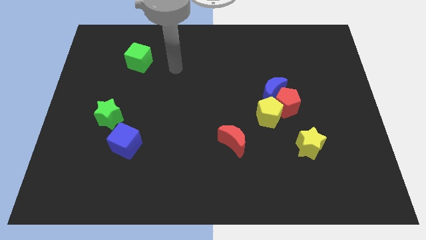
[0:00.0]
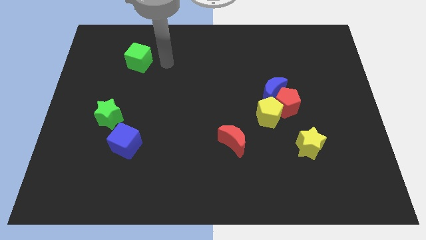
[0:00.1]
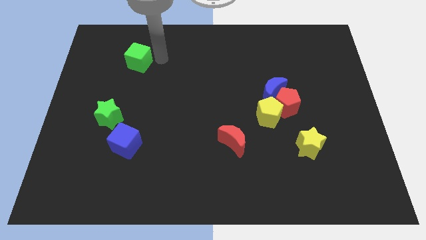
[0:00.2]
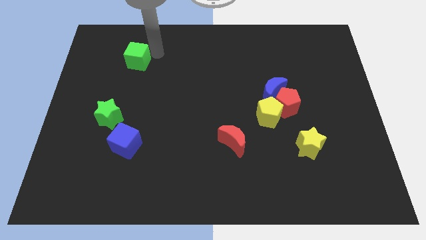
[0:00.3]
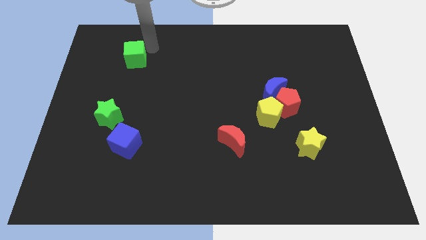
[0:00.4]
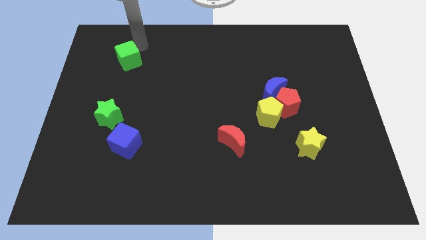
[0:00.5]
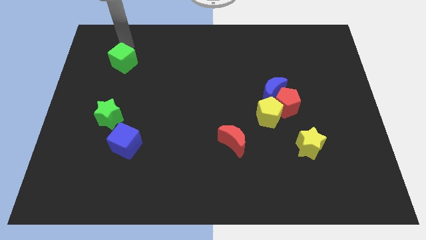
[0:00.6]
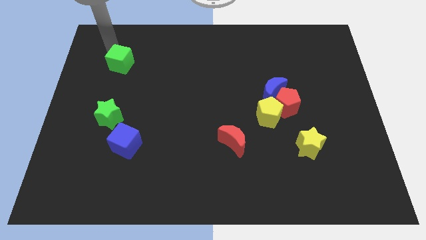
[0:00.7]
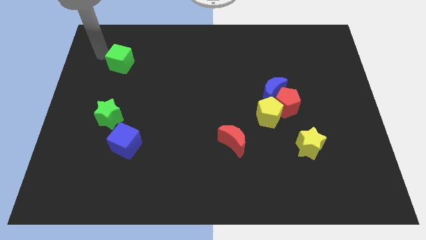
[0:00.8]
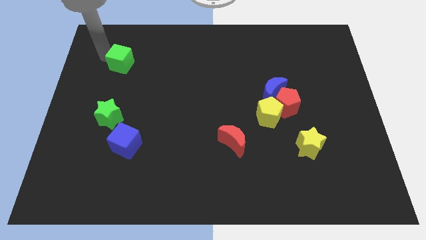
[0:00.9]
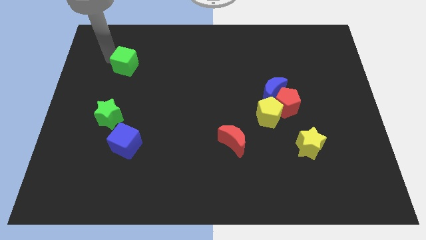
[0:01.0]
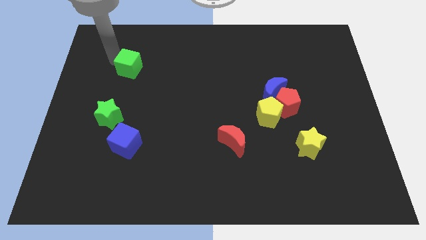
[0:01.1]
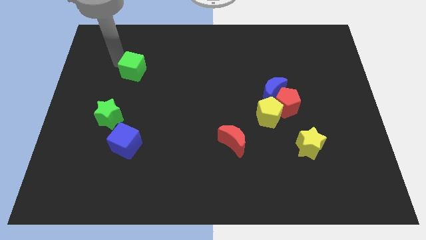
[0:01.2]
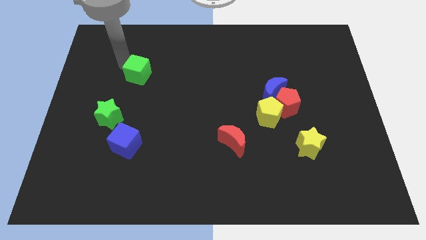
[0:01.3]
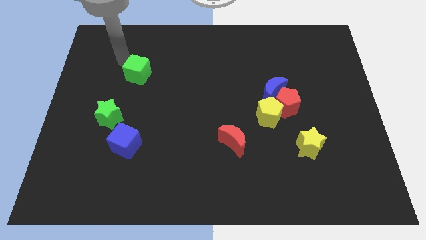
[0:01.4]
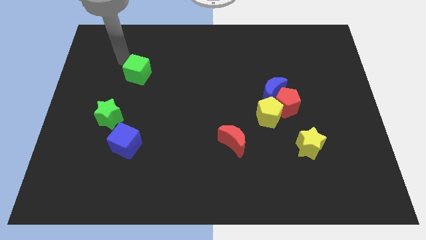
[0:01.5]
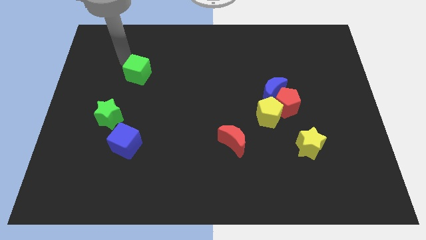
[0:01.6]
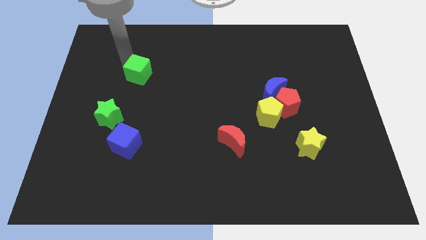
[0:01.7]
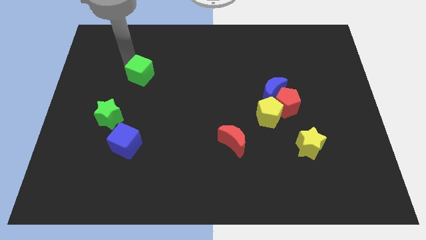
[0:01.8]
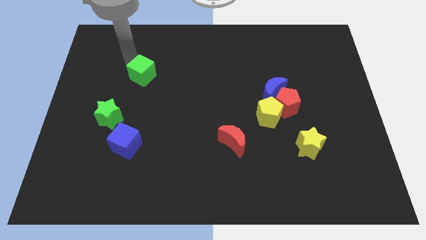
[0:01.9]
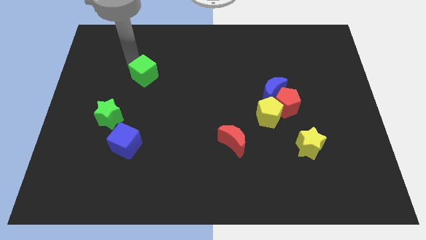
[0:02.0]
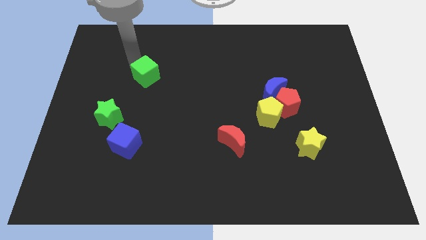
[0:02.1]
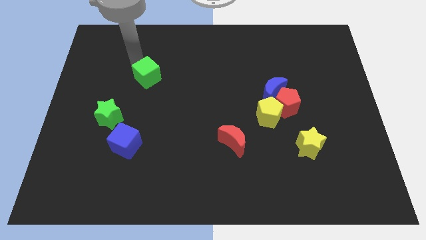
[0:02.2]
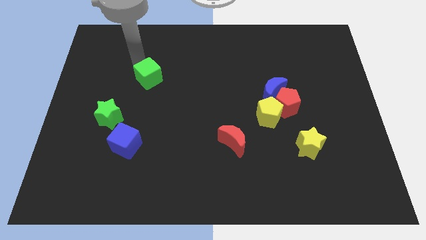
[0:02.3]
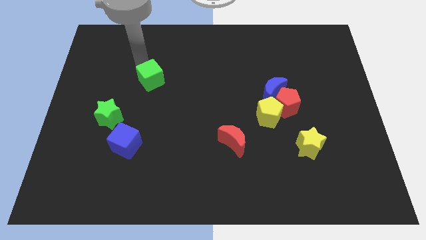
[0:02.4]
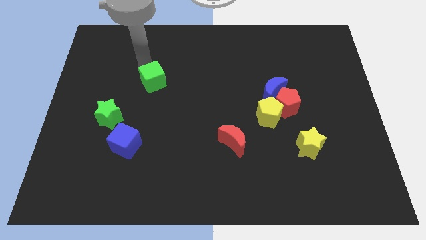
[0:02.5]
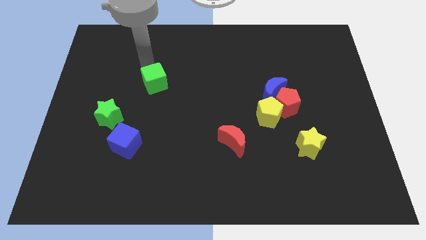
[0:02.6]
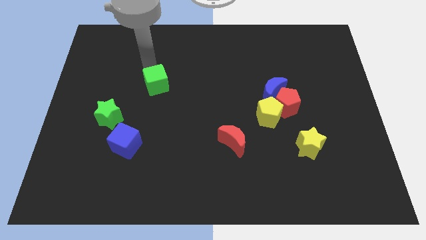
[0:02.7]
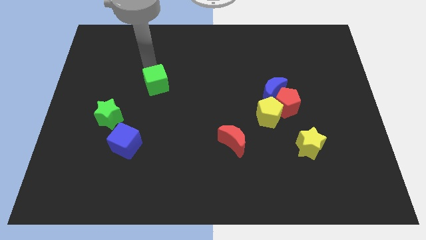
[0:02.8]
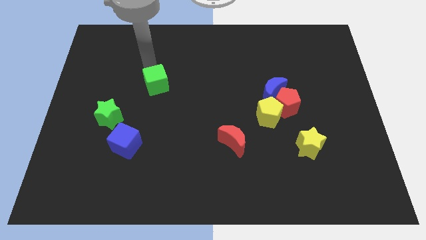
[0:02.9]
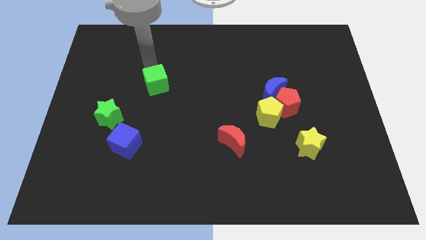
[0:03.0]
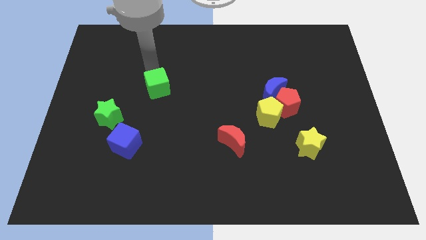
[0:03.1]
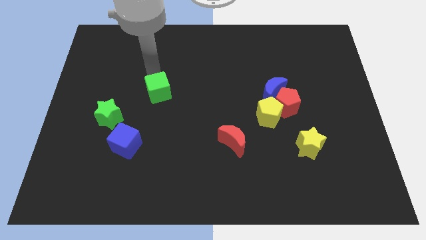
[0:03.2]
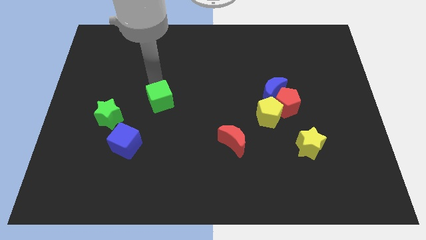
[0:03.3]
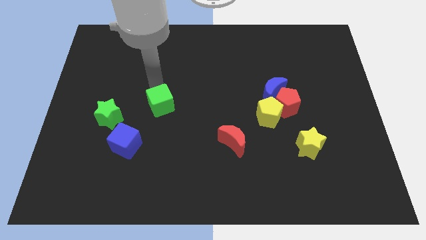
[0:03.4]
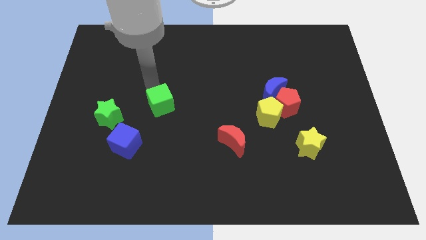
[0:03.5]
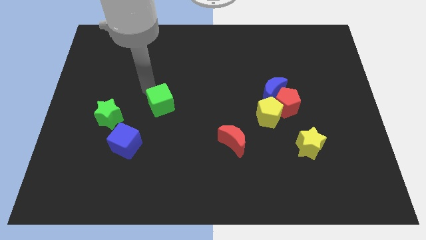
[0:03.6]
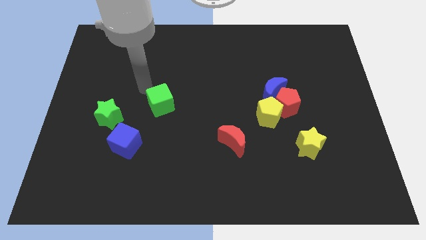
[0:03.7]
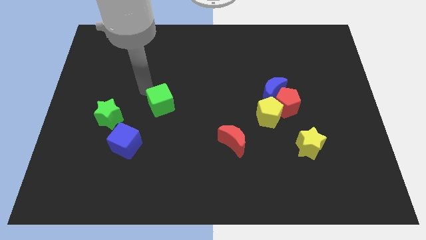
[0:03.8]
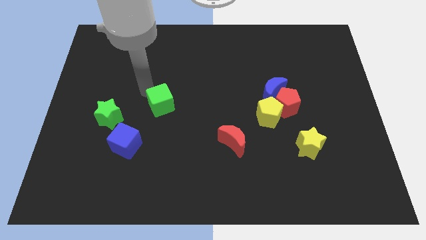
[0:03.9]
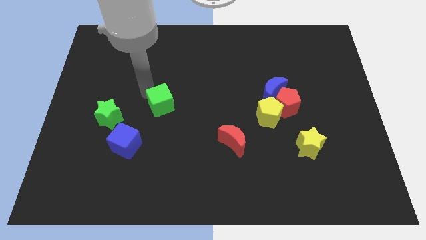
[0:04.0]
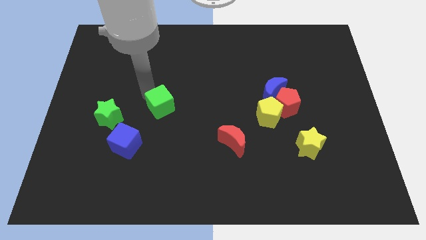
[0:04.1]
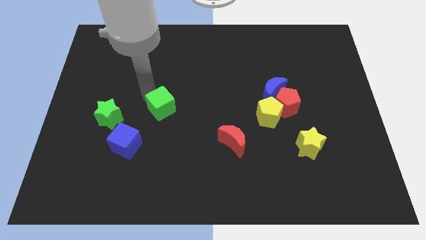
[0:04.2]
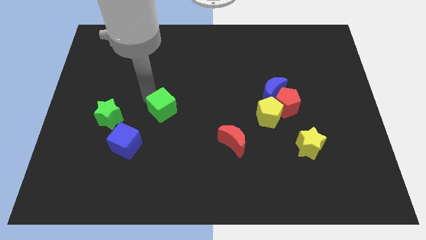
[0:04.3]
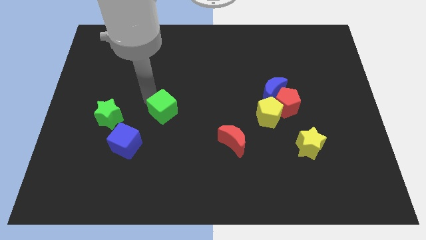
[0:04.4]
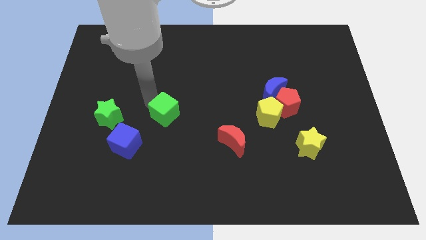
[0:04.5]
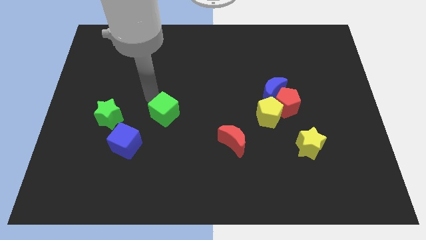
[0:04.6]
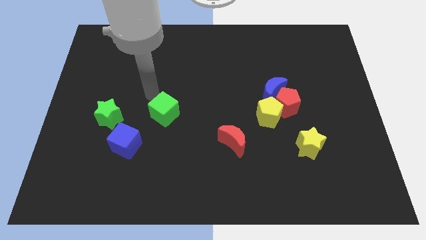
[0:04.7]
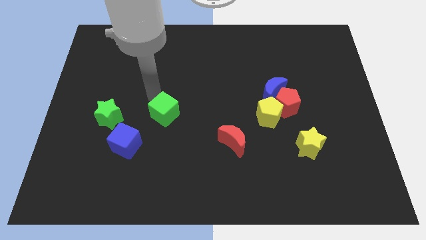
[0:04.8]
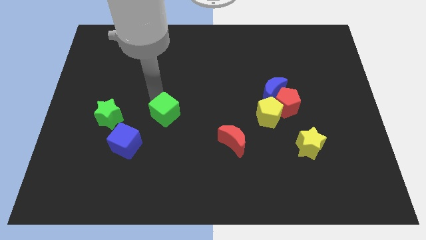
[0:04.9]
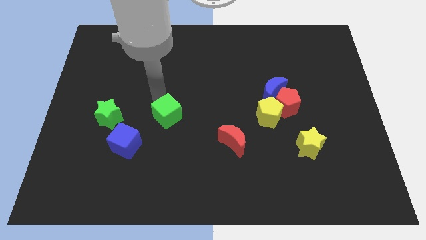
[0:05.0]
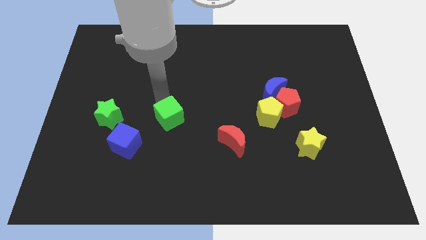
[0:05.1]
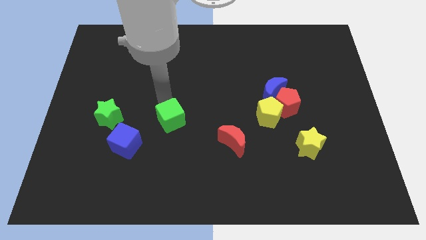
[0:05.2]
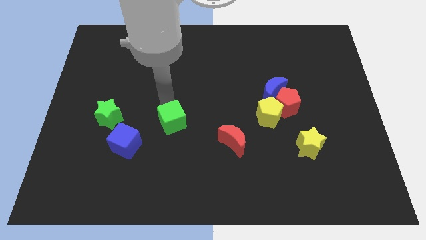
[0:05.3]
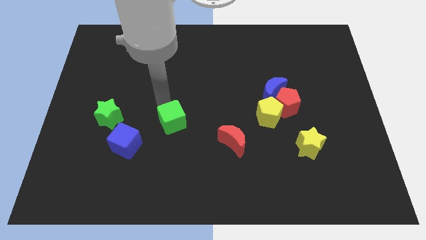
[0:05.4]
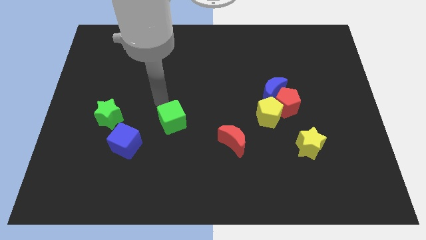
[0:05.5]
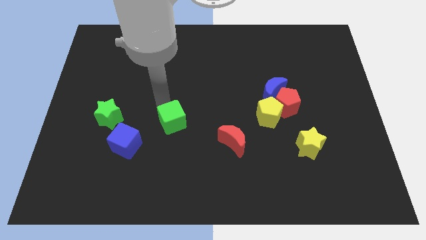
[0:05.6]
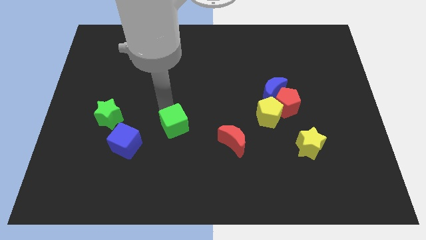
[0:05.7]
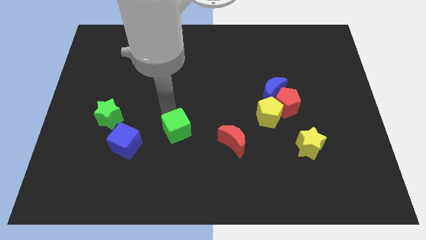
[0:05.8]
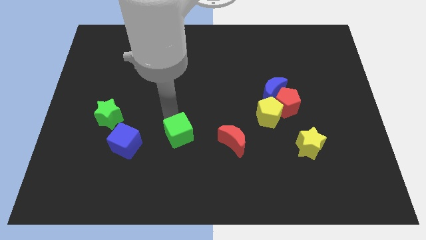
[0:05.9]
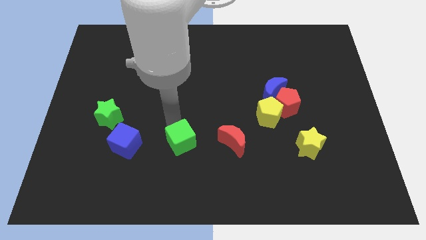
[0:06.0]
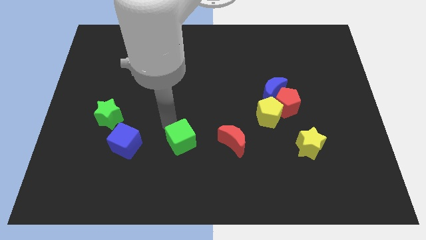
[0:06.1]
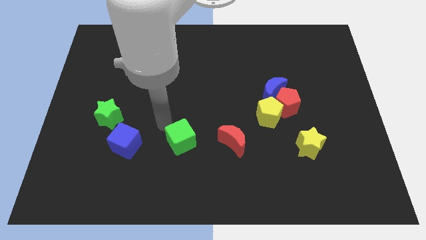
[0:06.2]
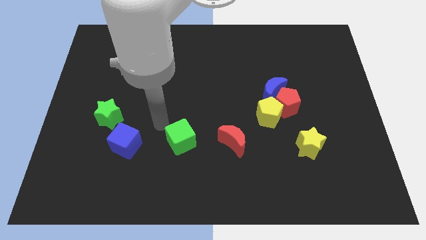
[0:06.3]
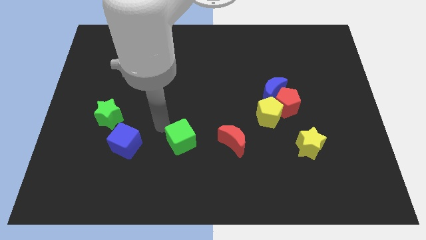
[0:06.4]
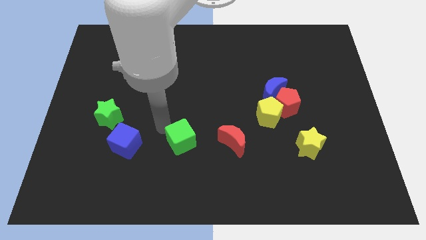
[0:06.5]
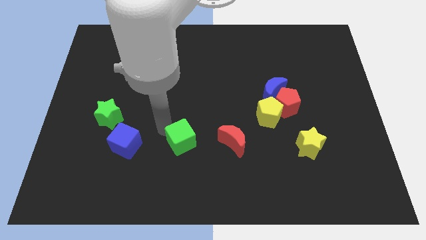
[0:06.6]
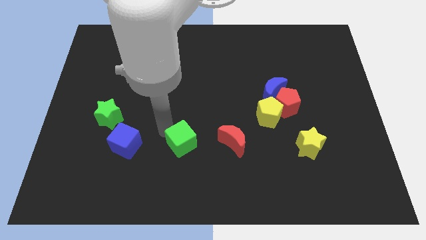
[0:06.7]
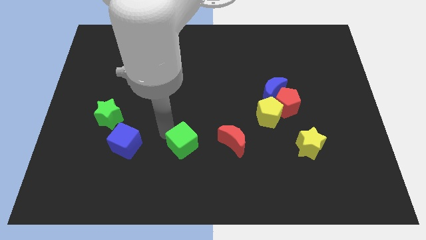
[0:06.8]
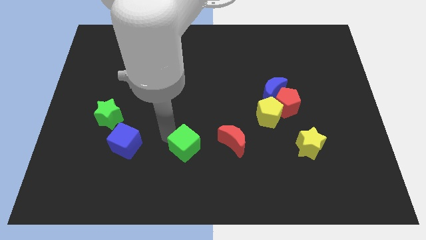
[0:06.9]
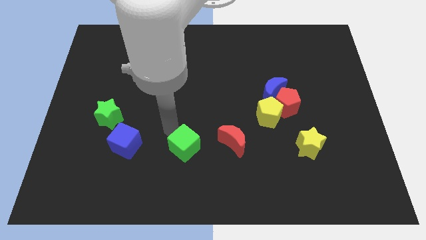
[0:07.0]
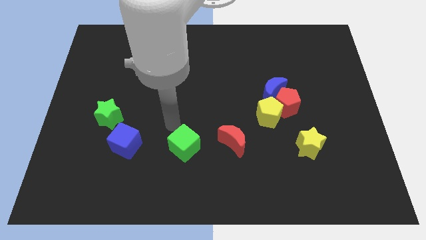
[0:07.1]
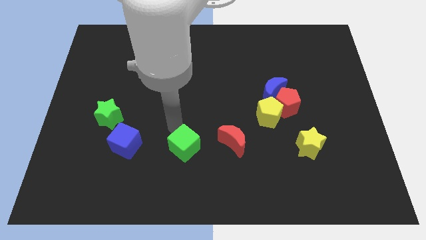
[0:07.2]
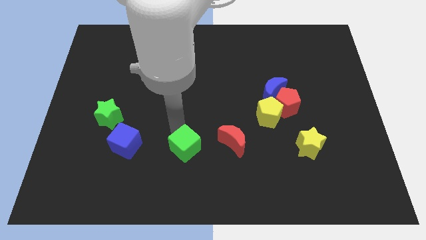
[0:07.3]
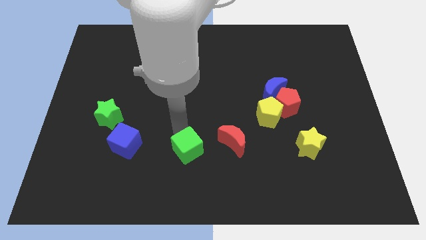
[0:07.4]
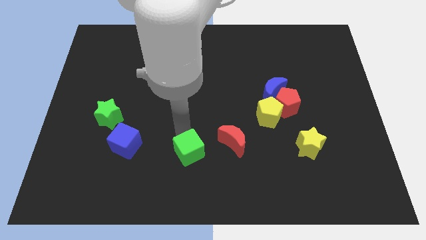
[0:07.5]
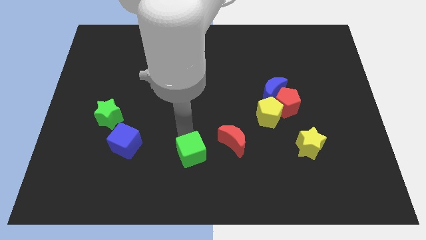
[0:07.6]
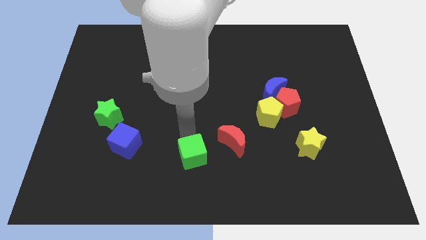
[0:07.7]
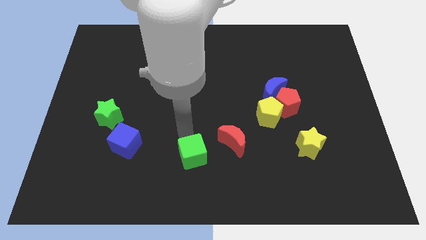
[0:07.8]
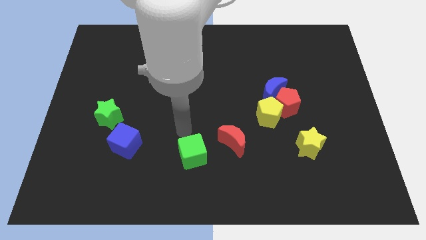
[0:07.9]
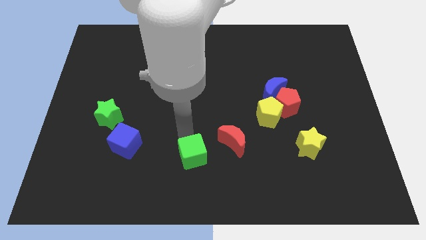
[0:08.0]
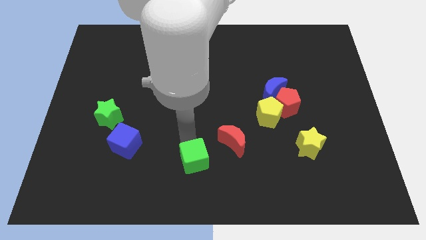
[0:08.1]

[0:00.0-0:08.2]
slide the green cube to the bottom
